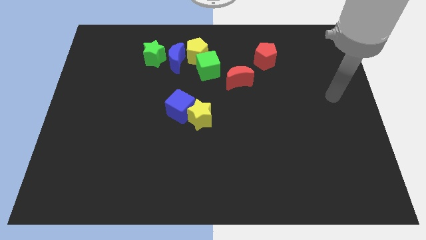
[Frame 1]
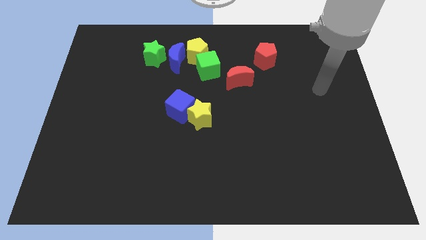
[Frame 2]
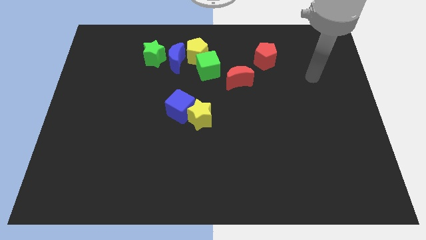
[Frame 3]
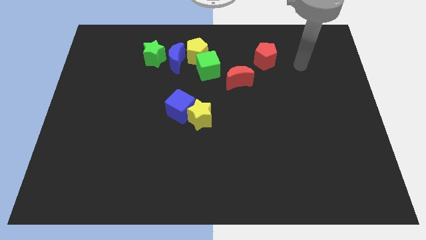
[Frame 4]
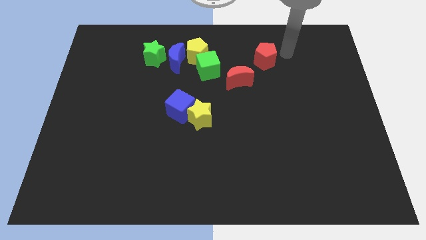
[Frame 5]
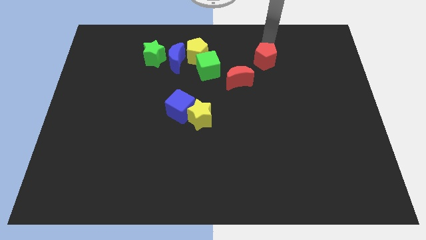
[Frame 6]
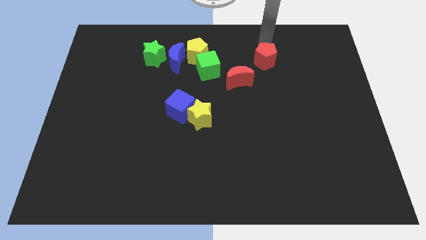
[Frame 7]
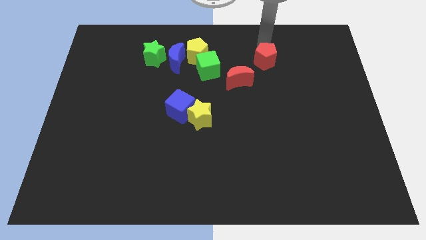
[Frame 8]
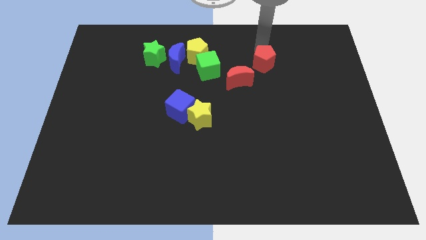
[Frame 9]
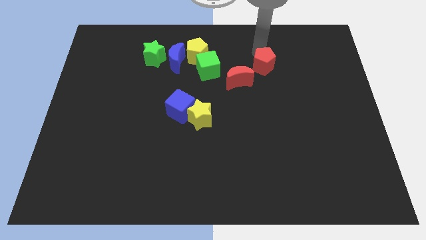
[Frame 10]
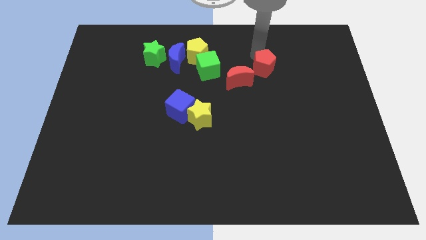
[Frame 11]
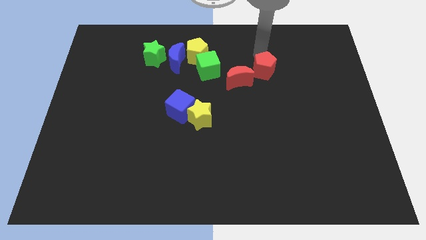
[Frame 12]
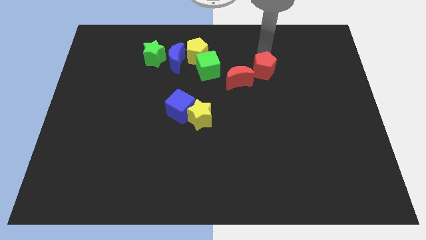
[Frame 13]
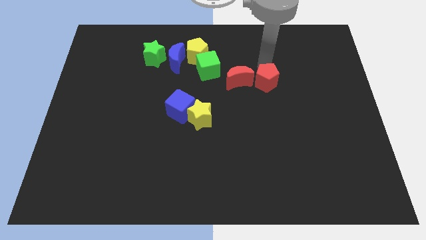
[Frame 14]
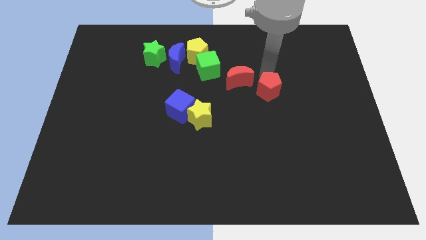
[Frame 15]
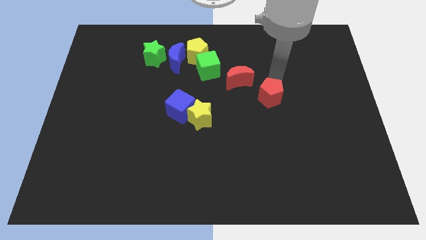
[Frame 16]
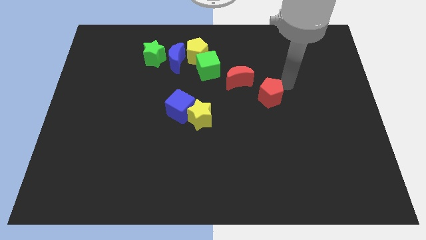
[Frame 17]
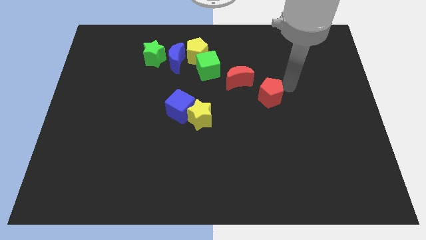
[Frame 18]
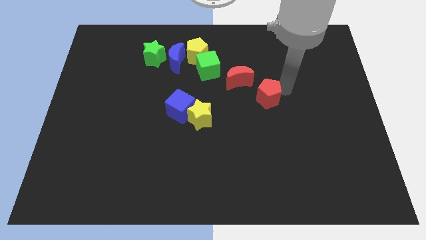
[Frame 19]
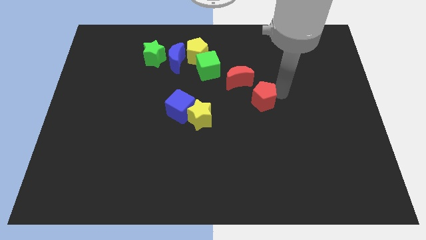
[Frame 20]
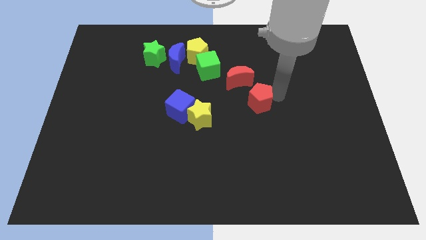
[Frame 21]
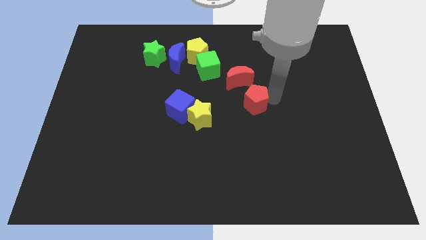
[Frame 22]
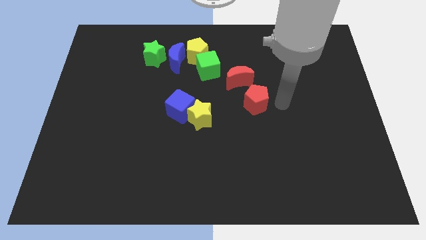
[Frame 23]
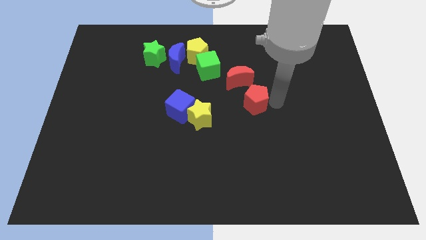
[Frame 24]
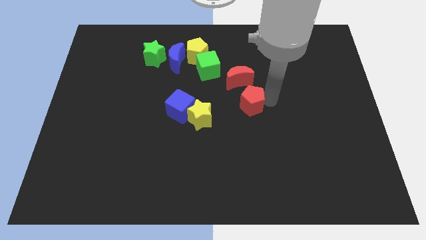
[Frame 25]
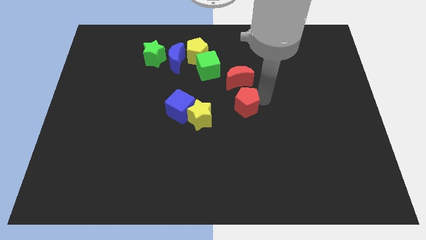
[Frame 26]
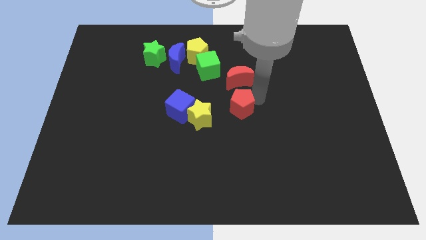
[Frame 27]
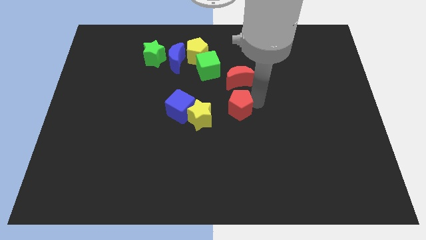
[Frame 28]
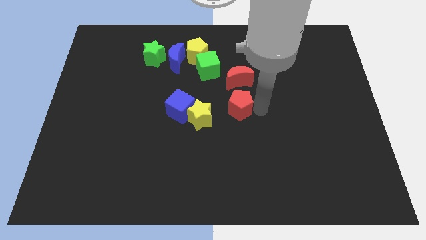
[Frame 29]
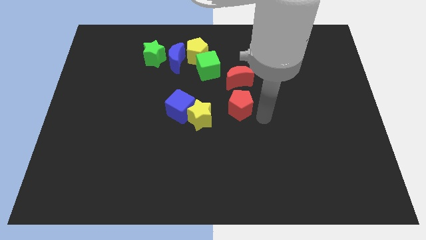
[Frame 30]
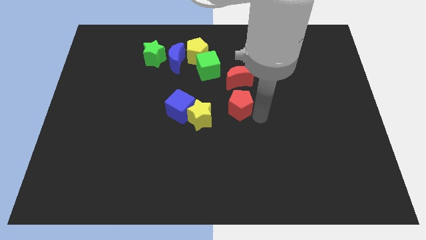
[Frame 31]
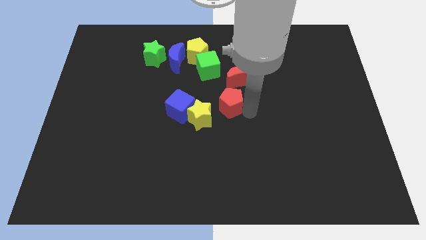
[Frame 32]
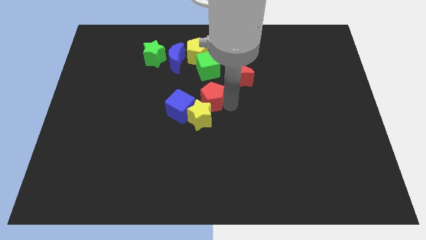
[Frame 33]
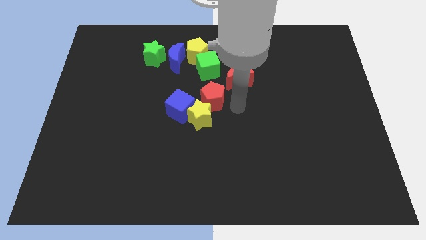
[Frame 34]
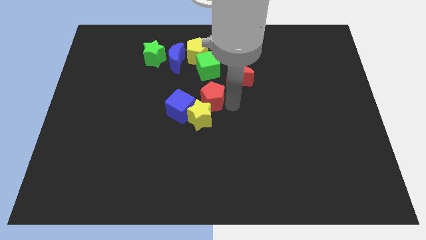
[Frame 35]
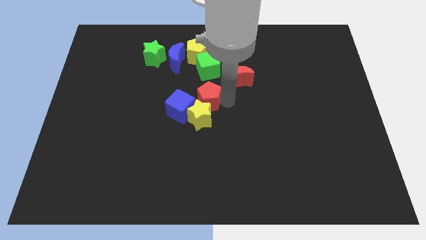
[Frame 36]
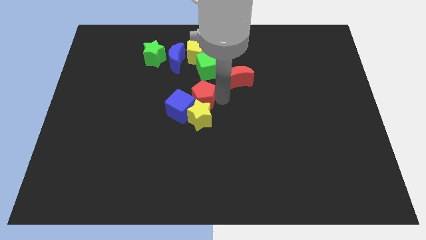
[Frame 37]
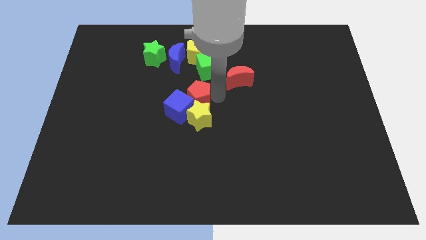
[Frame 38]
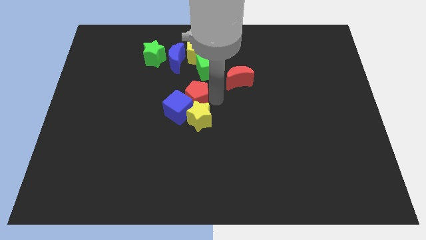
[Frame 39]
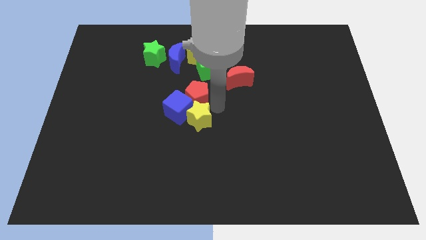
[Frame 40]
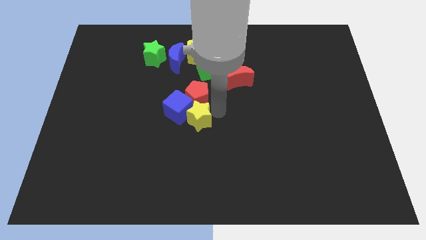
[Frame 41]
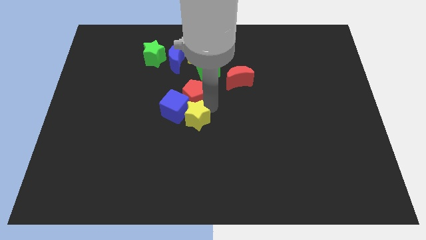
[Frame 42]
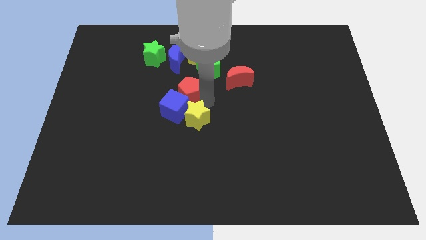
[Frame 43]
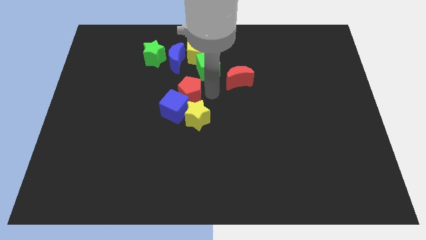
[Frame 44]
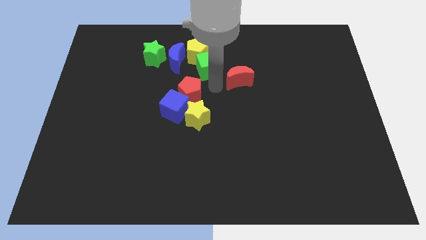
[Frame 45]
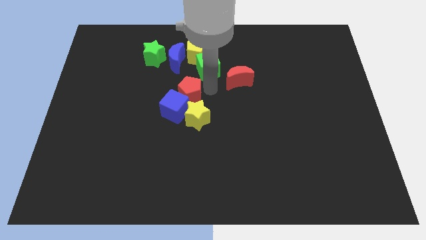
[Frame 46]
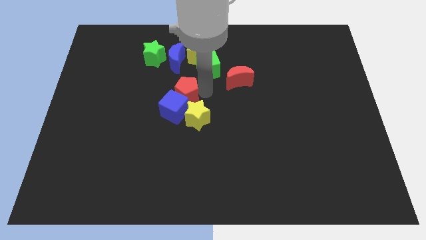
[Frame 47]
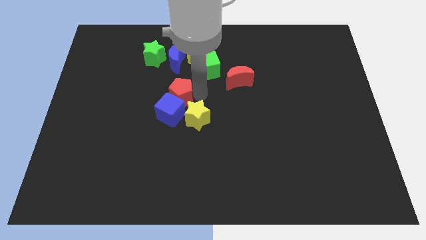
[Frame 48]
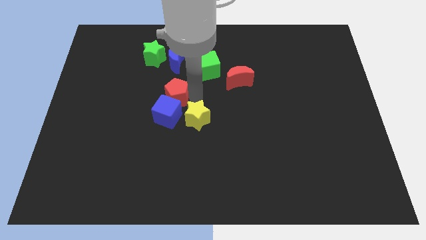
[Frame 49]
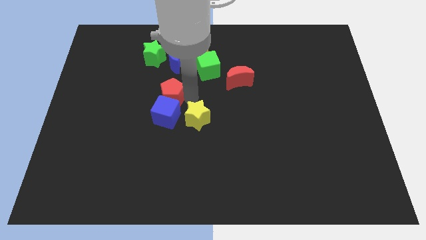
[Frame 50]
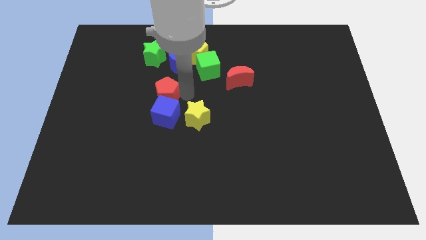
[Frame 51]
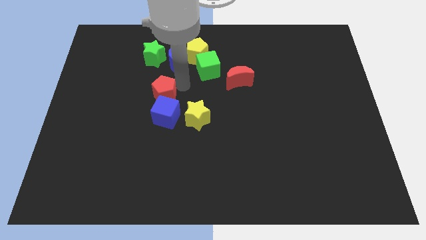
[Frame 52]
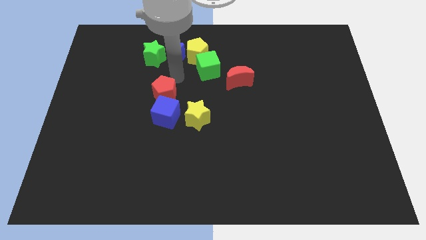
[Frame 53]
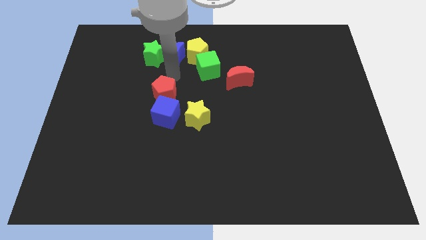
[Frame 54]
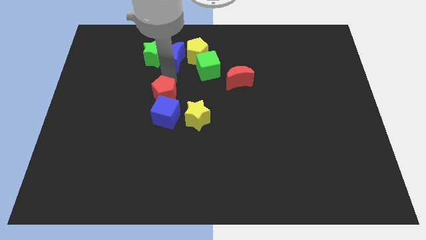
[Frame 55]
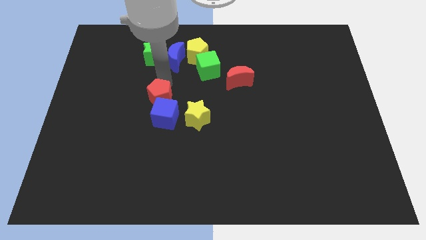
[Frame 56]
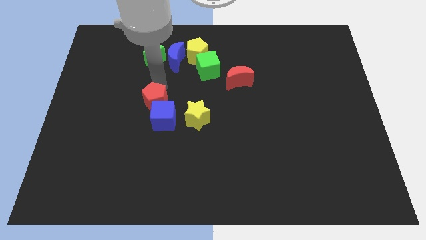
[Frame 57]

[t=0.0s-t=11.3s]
slide the red pentagon to the left of the yellow star

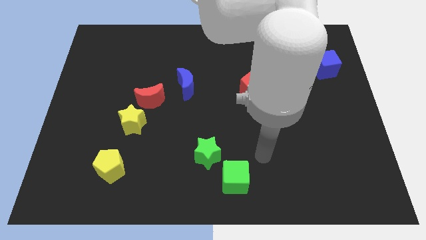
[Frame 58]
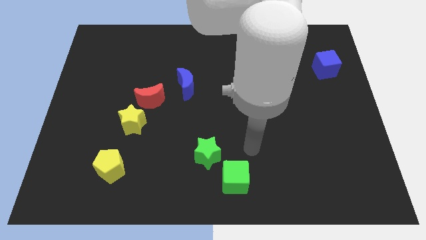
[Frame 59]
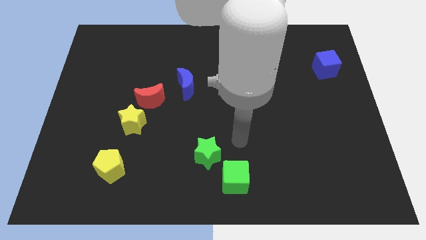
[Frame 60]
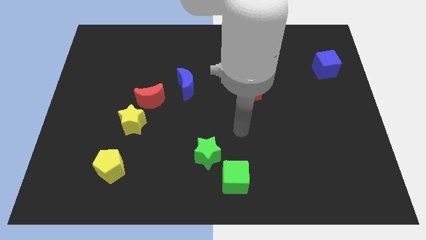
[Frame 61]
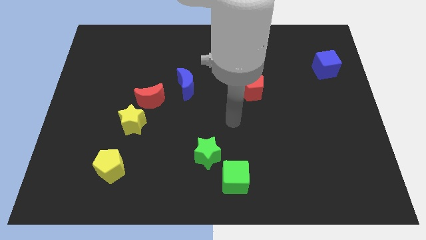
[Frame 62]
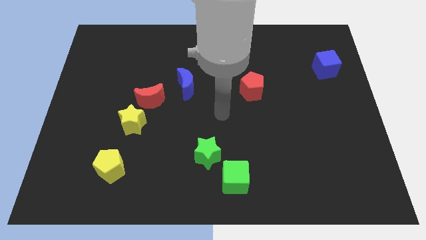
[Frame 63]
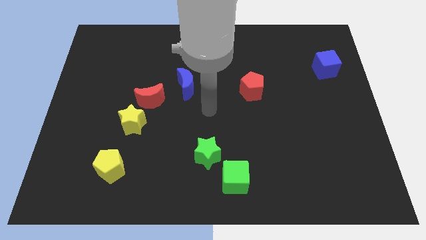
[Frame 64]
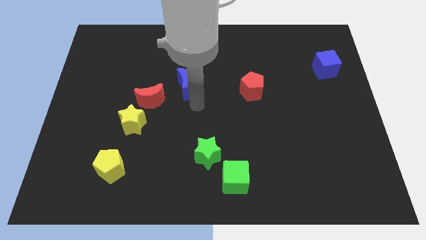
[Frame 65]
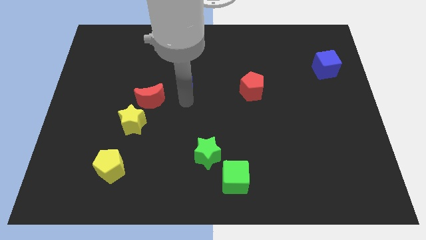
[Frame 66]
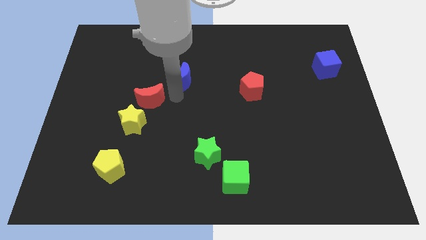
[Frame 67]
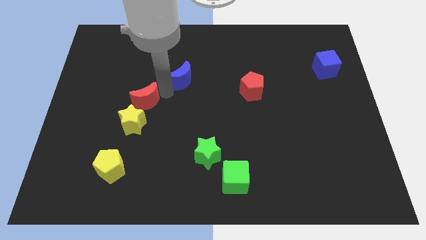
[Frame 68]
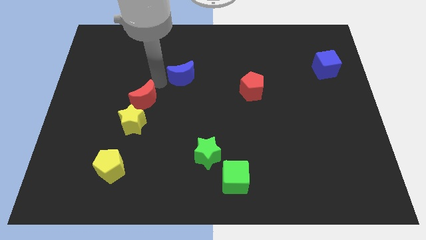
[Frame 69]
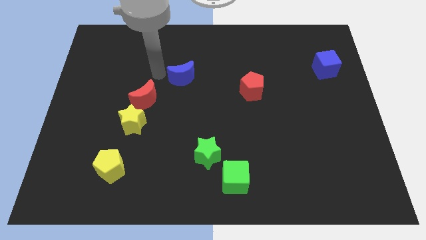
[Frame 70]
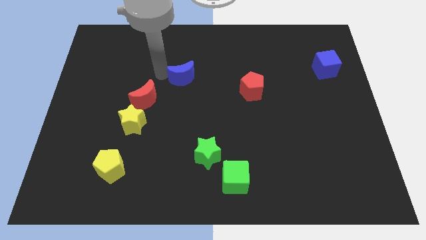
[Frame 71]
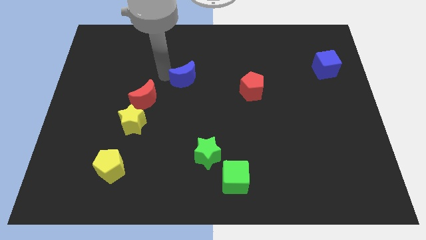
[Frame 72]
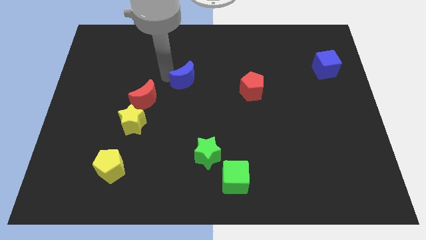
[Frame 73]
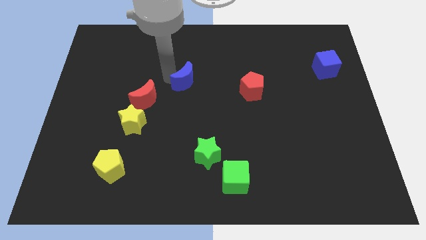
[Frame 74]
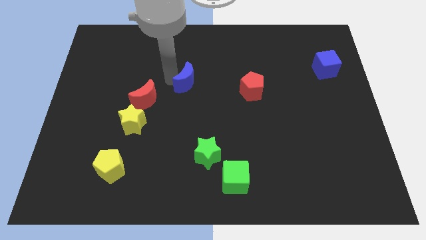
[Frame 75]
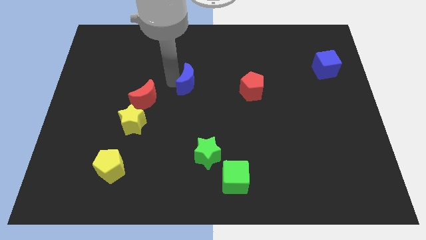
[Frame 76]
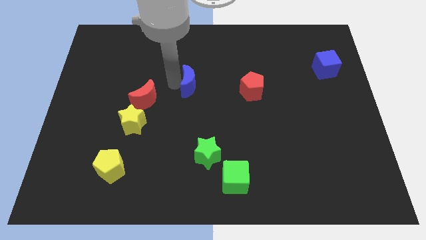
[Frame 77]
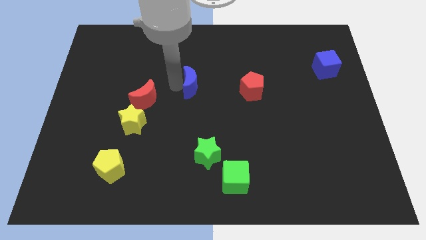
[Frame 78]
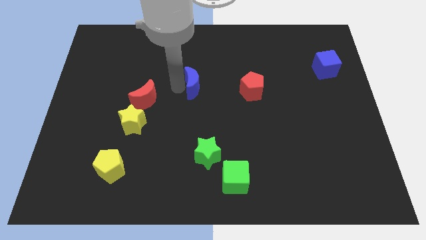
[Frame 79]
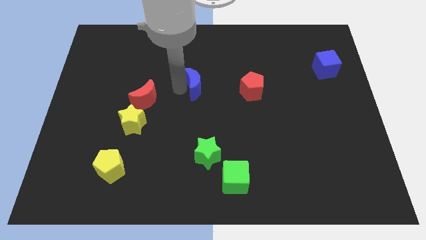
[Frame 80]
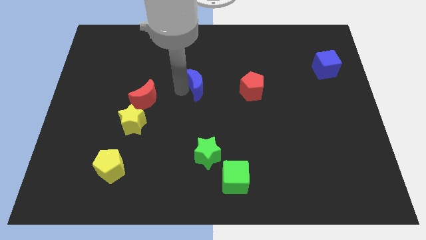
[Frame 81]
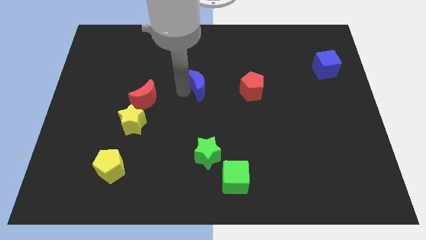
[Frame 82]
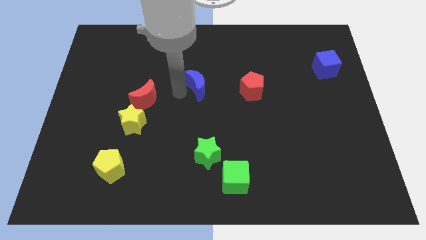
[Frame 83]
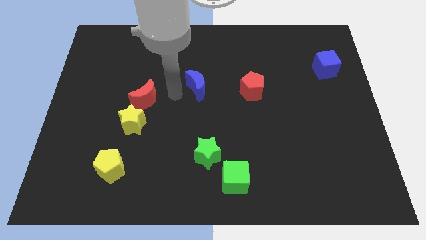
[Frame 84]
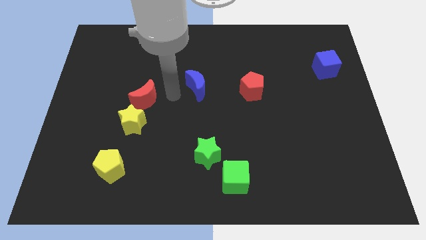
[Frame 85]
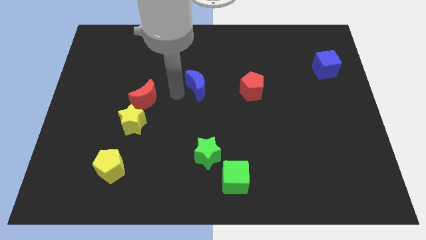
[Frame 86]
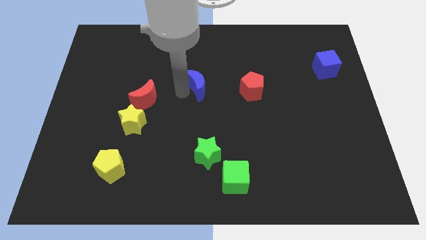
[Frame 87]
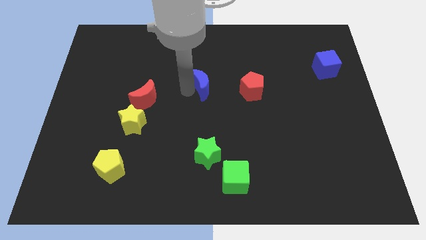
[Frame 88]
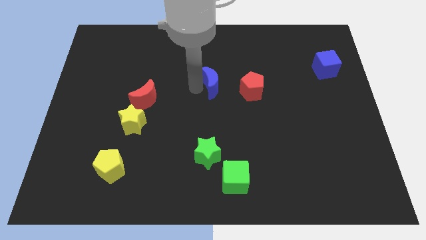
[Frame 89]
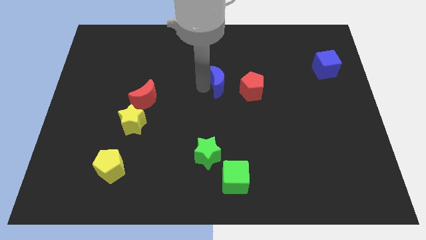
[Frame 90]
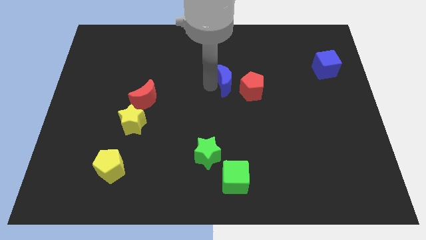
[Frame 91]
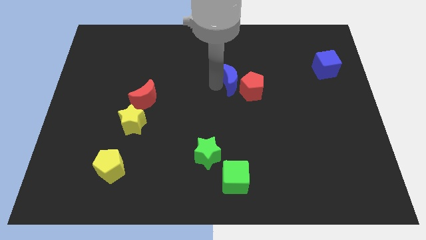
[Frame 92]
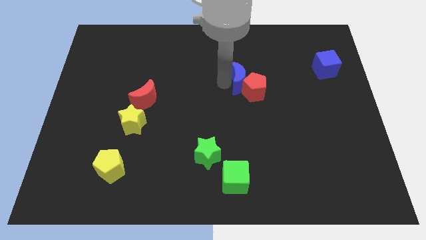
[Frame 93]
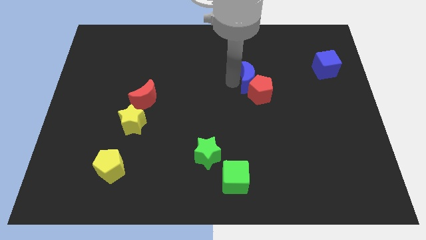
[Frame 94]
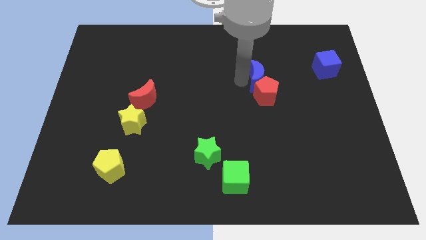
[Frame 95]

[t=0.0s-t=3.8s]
move the blue moon diagonally up and to the right of the red pentagon
